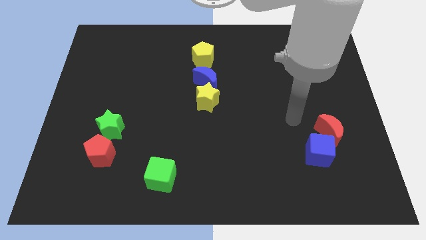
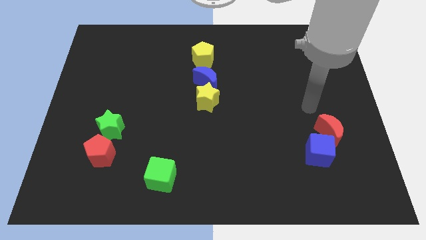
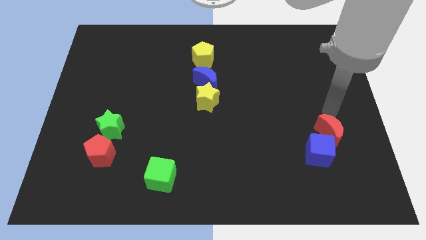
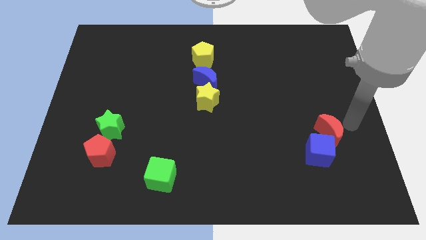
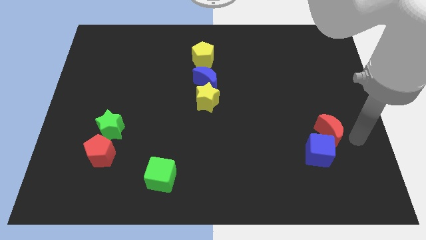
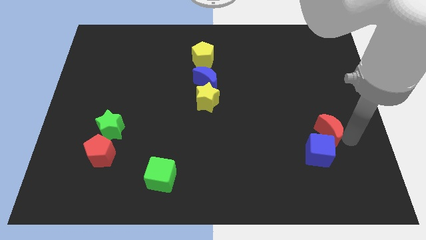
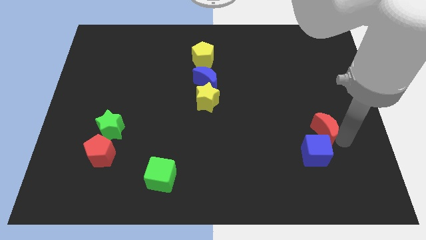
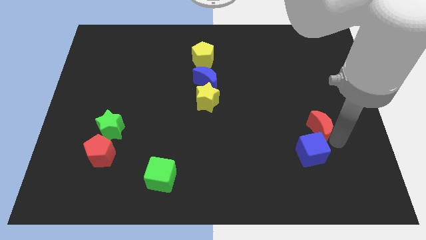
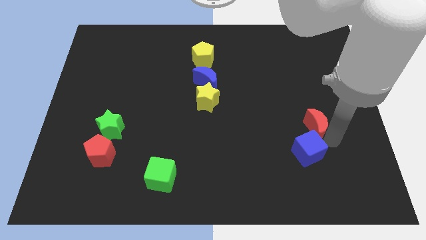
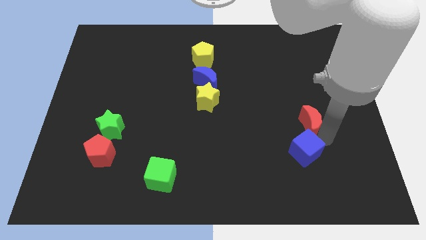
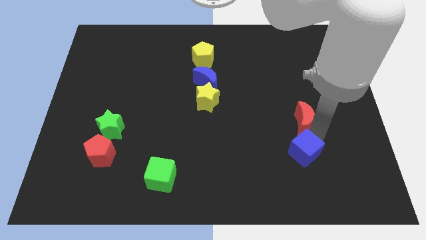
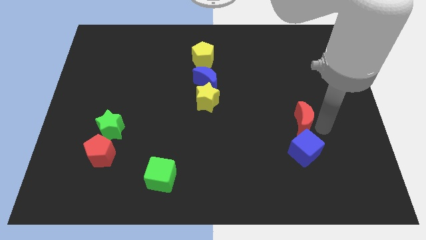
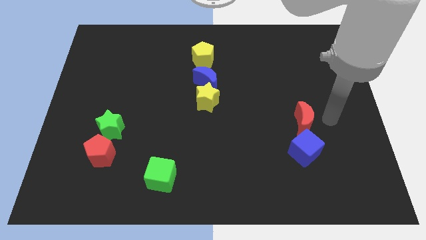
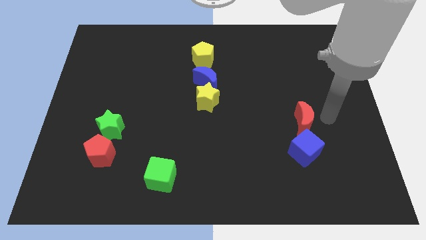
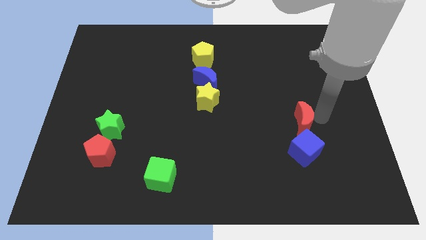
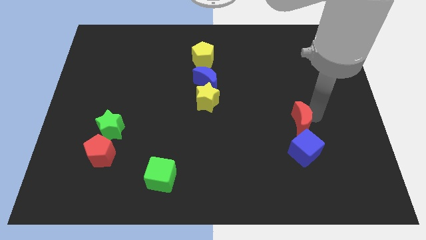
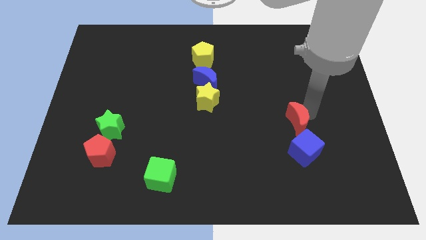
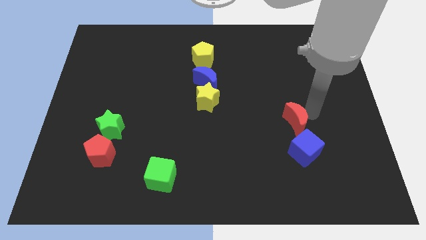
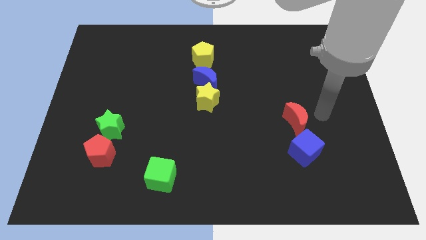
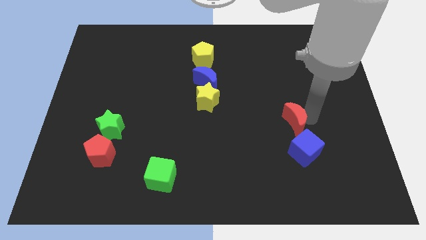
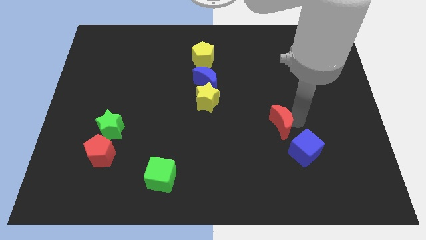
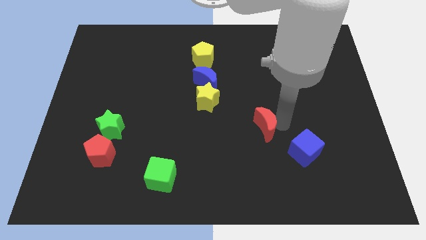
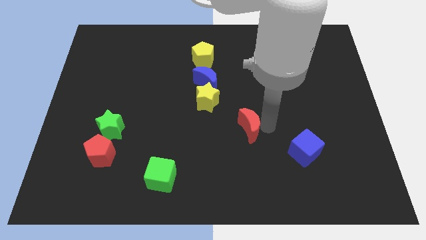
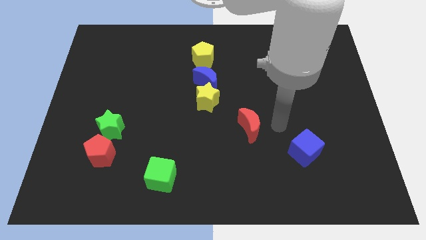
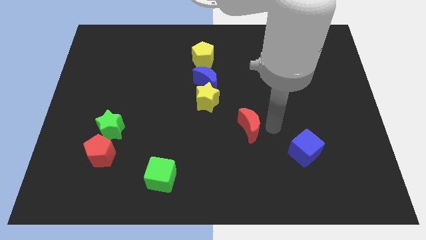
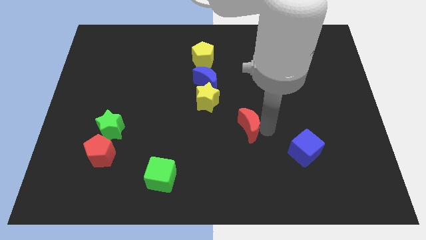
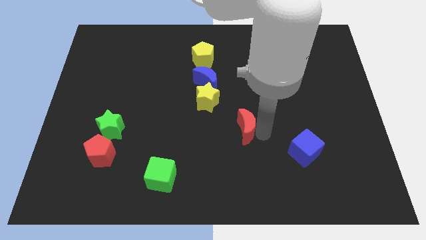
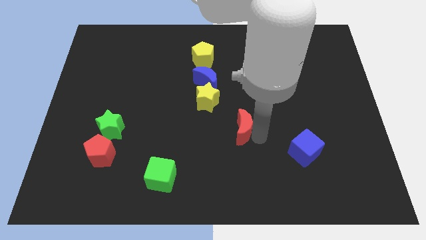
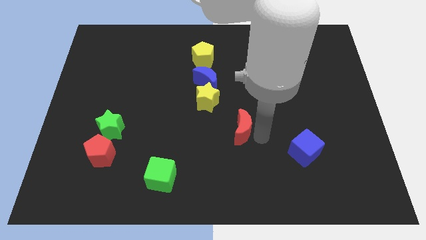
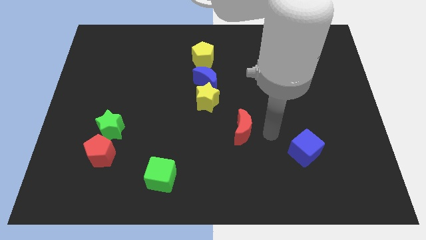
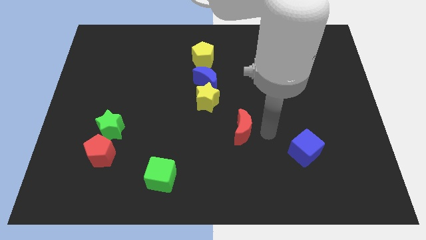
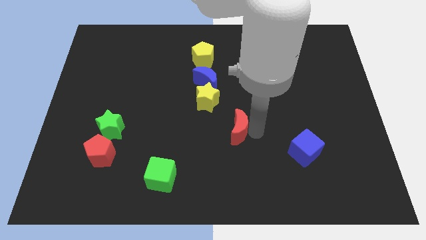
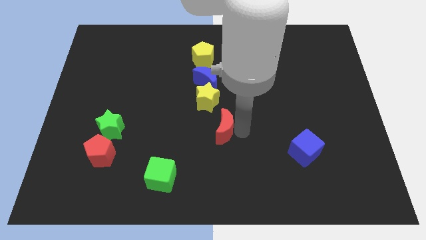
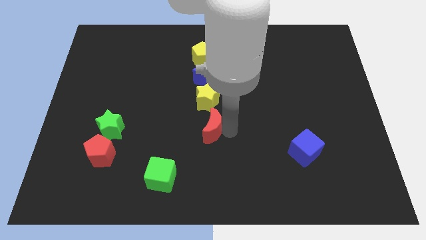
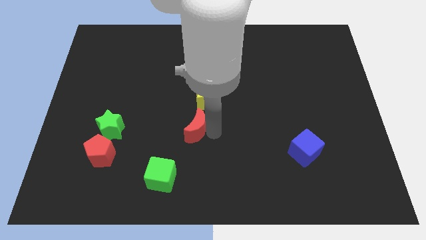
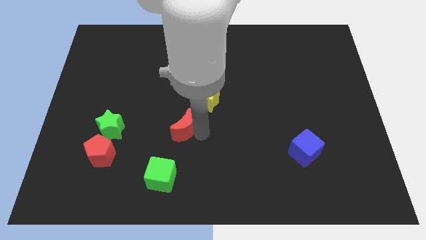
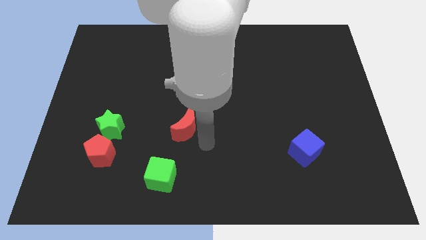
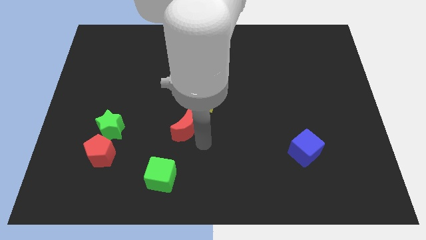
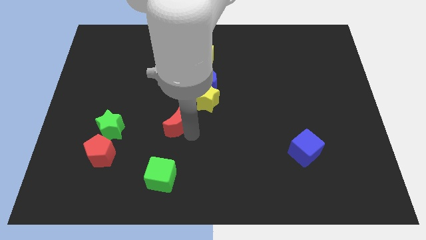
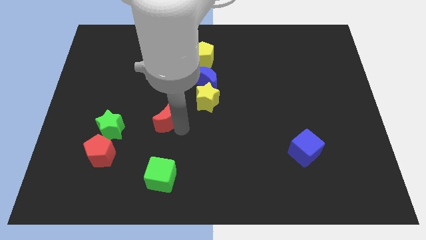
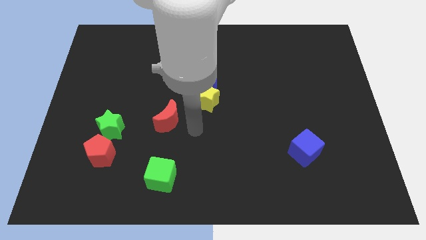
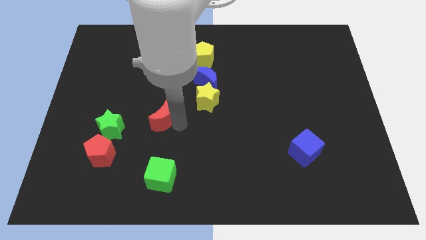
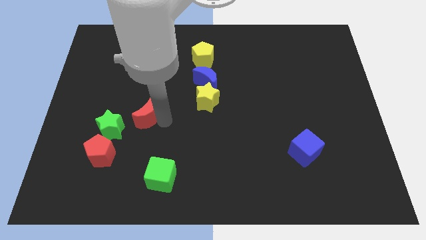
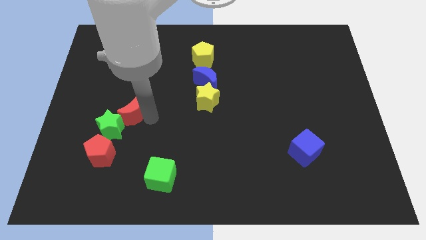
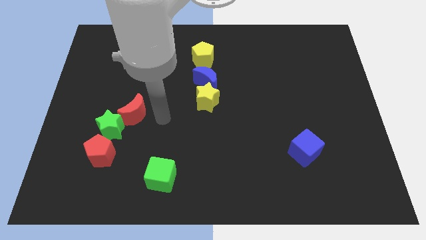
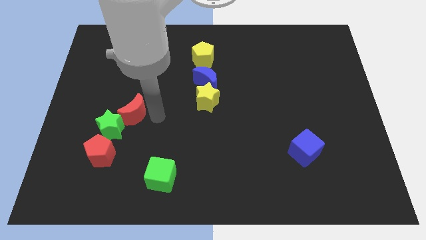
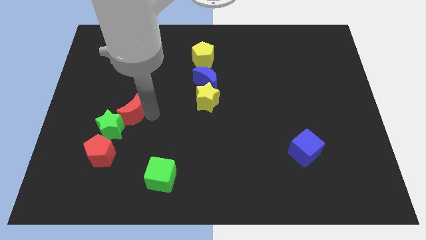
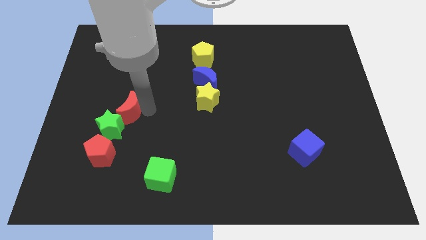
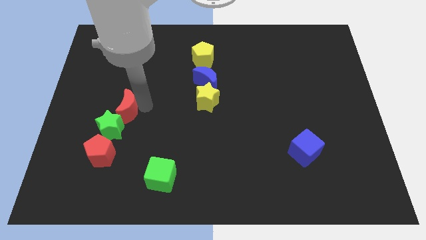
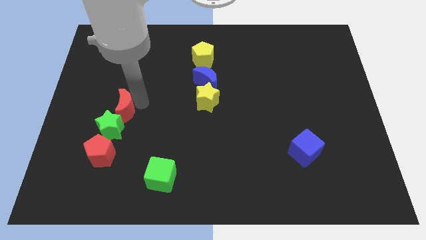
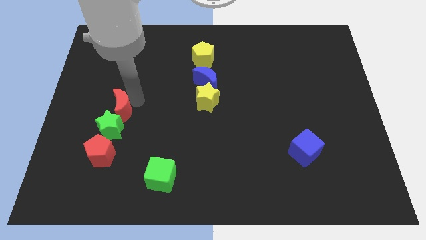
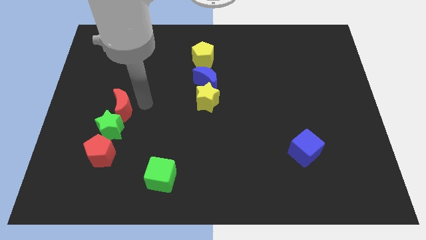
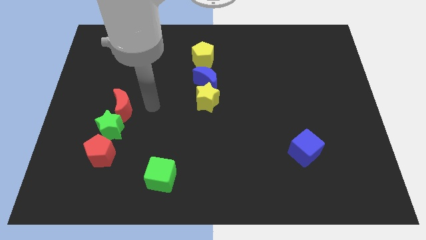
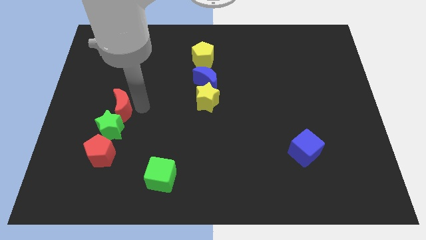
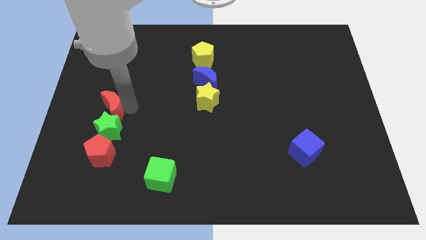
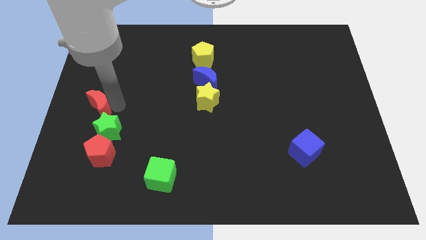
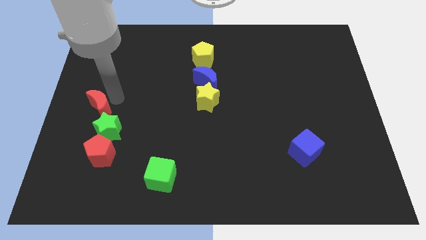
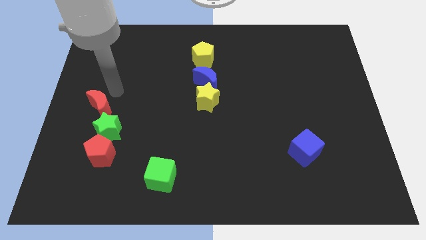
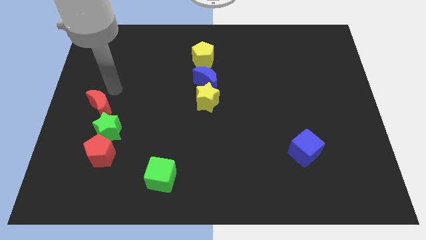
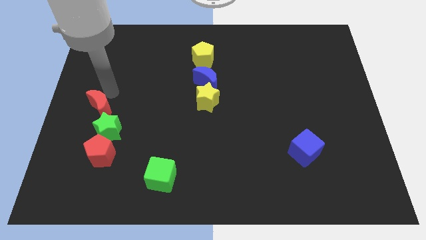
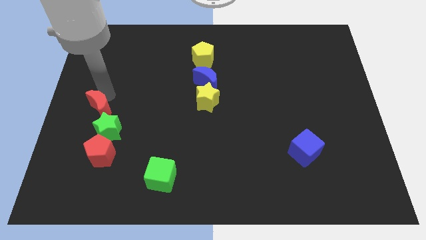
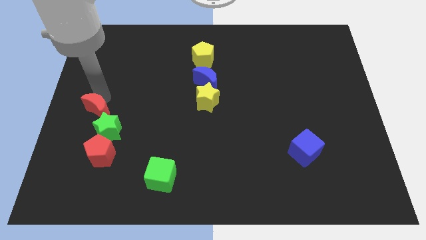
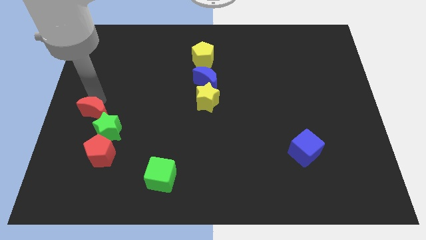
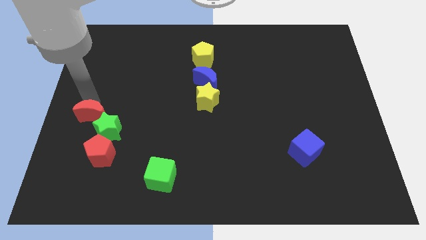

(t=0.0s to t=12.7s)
put the red moon to the top left of the red pentagon
